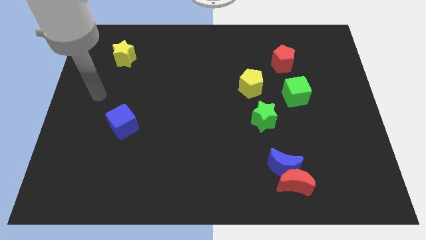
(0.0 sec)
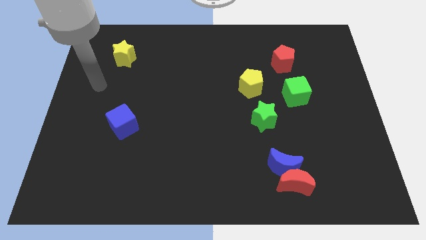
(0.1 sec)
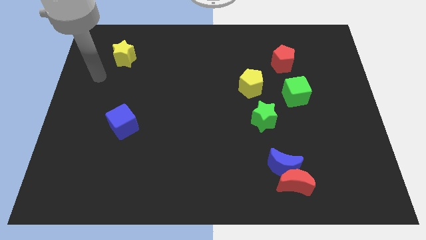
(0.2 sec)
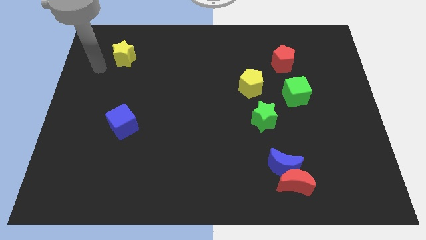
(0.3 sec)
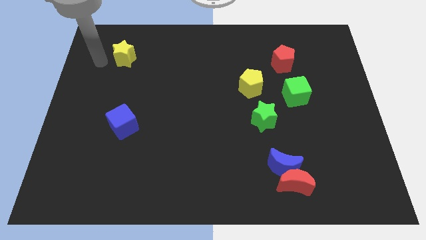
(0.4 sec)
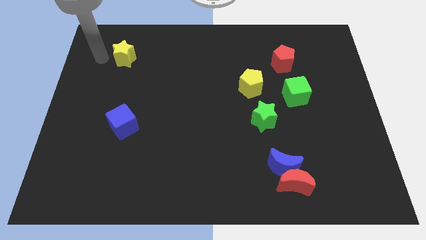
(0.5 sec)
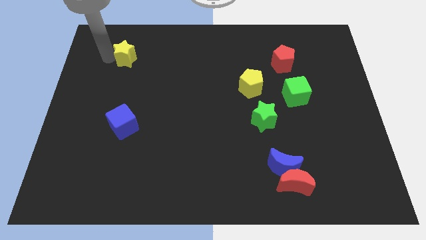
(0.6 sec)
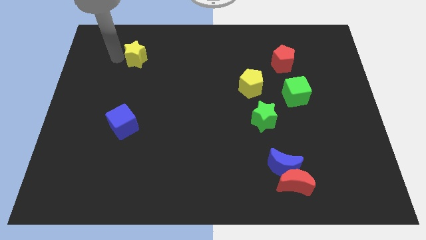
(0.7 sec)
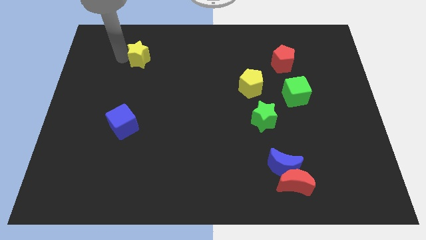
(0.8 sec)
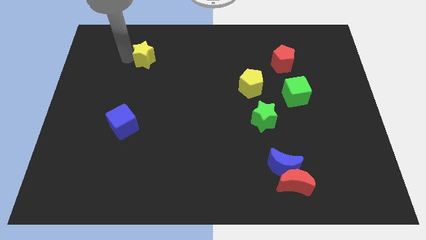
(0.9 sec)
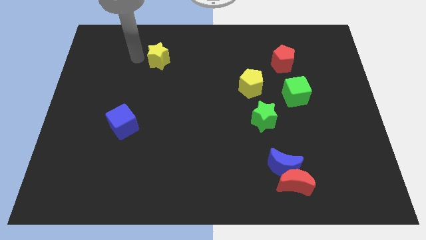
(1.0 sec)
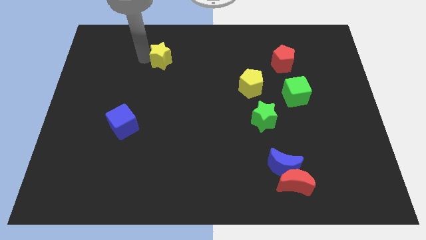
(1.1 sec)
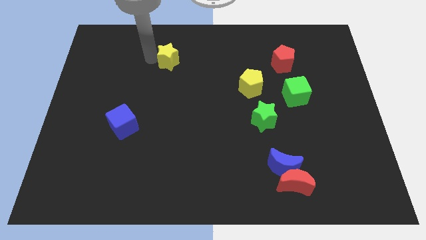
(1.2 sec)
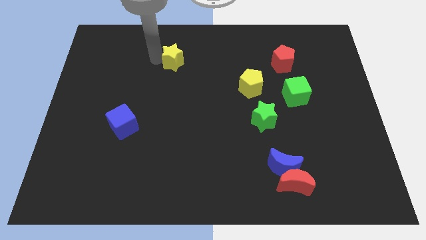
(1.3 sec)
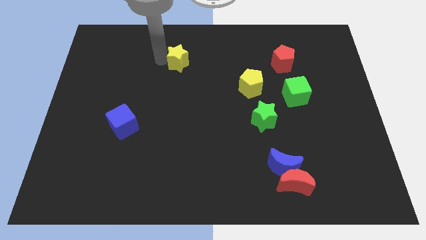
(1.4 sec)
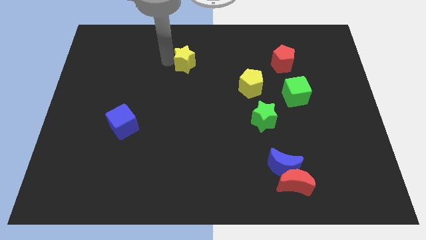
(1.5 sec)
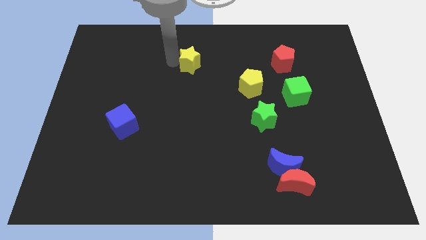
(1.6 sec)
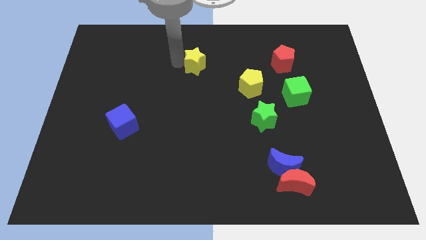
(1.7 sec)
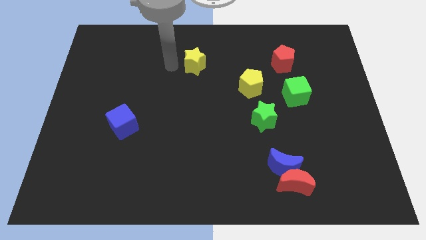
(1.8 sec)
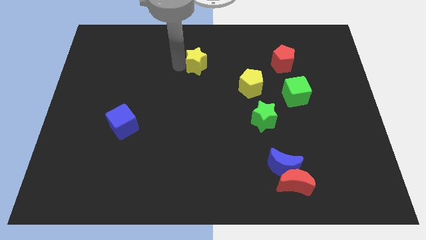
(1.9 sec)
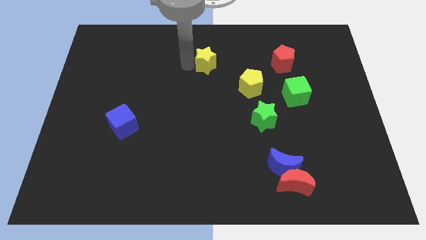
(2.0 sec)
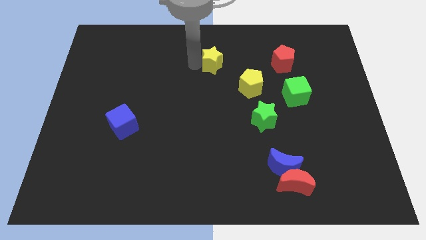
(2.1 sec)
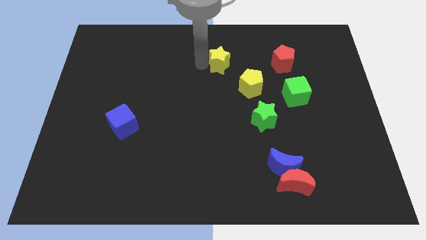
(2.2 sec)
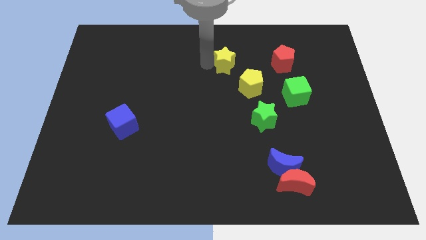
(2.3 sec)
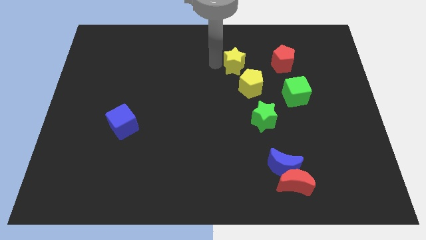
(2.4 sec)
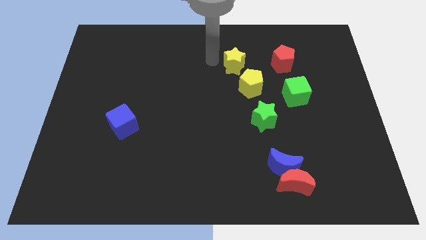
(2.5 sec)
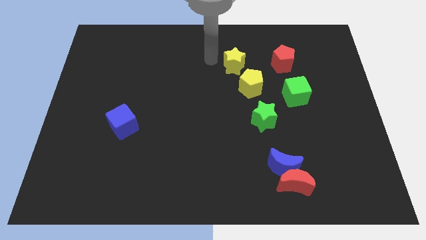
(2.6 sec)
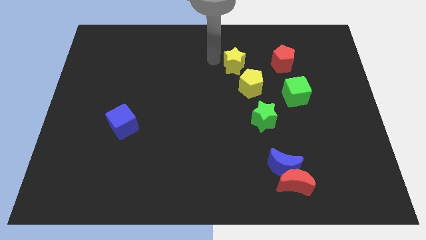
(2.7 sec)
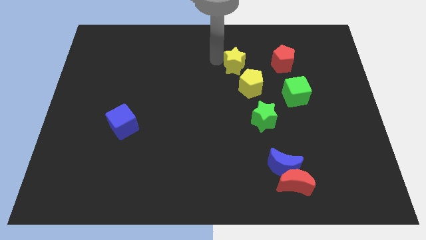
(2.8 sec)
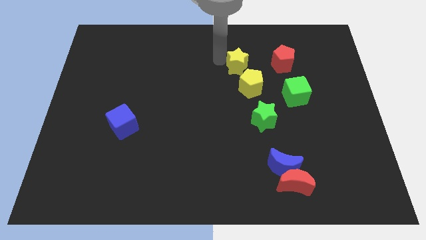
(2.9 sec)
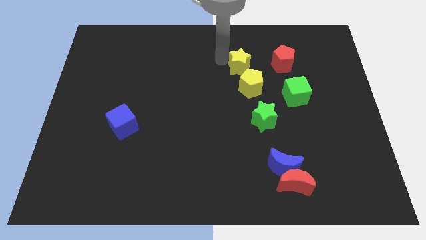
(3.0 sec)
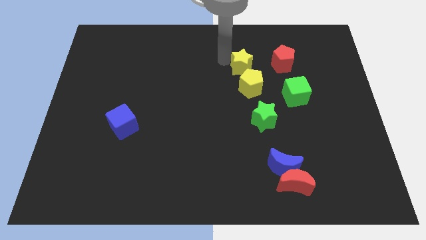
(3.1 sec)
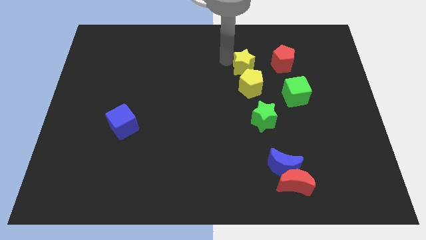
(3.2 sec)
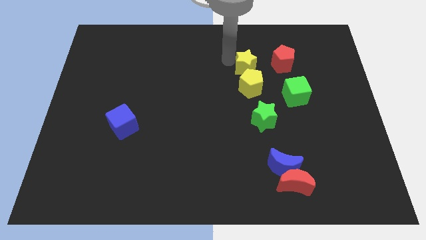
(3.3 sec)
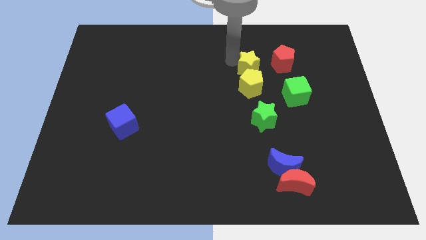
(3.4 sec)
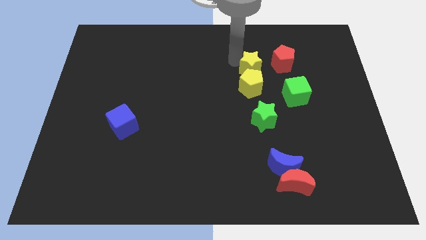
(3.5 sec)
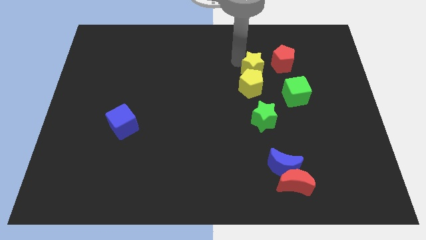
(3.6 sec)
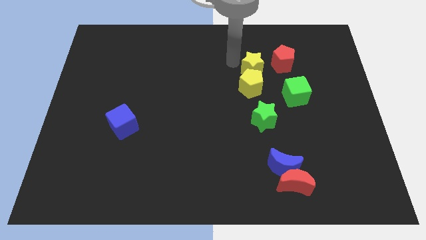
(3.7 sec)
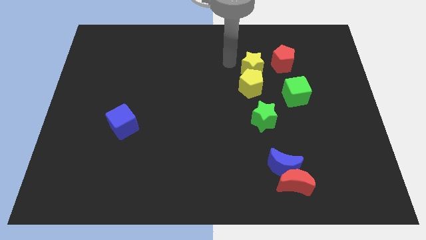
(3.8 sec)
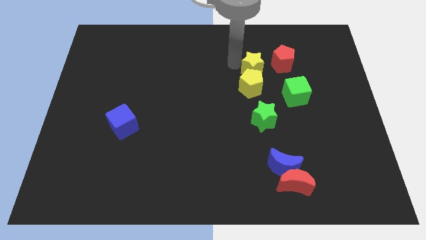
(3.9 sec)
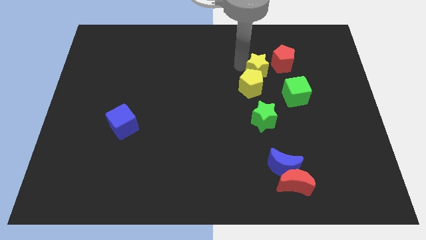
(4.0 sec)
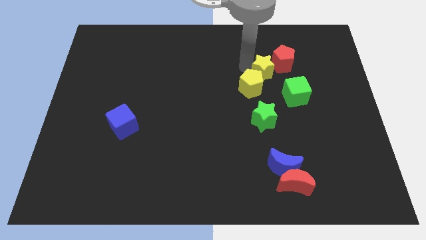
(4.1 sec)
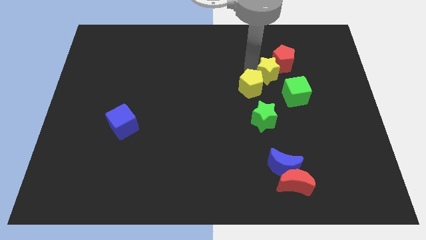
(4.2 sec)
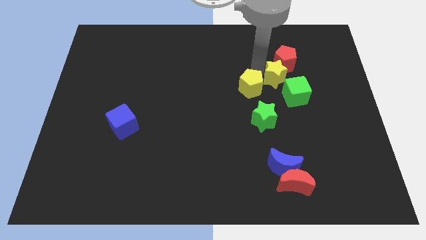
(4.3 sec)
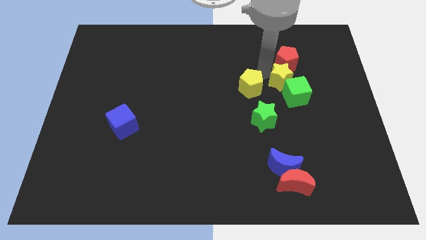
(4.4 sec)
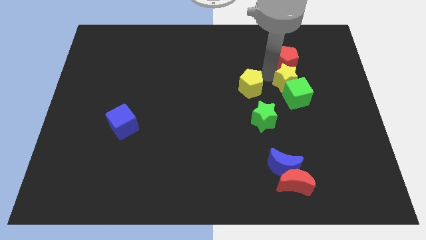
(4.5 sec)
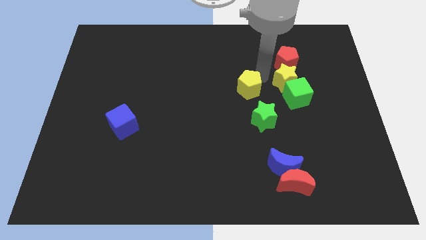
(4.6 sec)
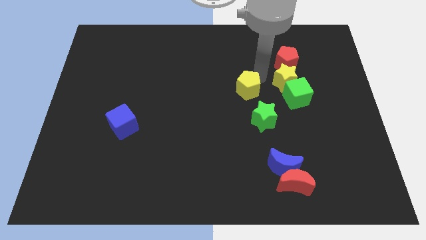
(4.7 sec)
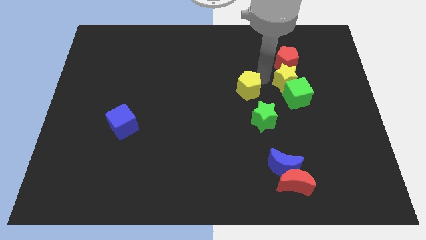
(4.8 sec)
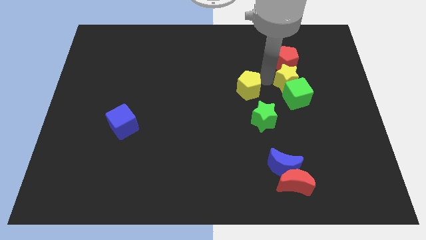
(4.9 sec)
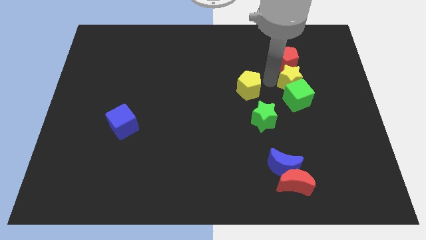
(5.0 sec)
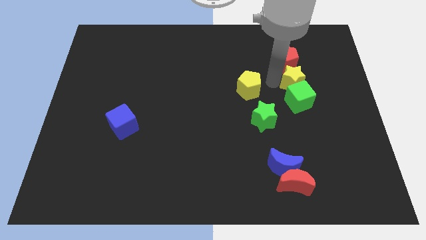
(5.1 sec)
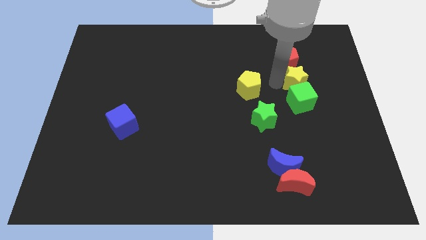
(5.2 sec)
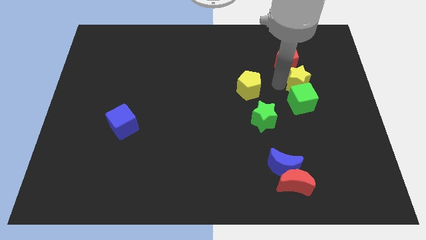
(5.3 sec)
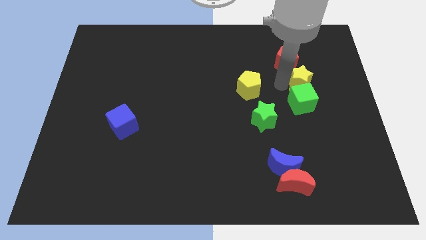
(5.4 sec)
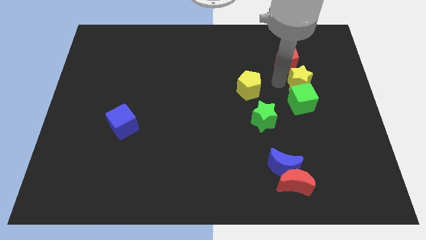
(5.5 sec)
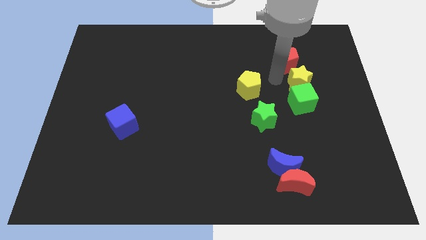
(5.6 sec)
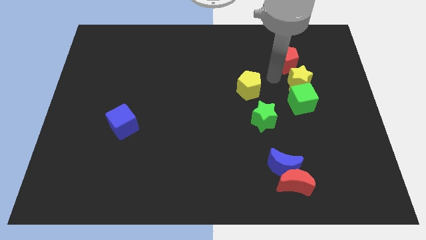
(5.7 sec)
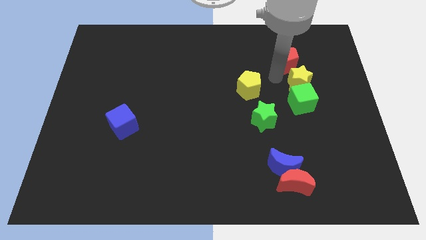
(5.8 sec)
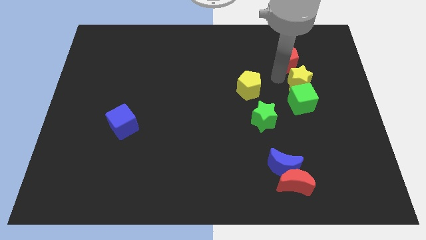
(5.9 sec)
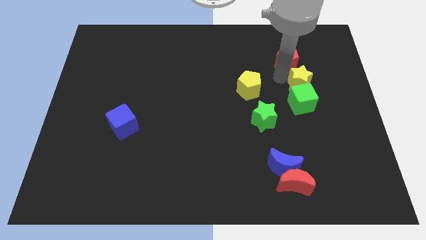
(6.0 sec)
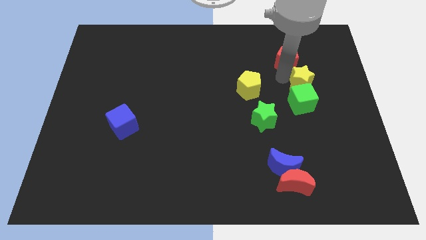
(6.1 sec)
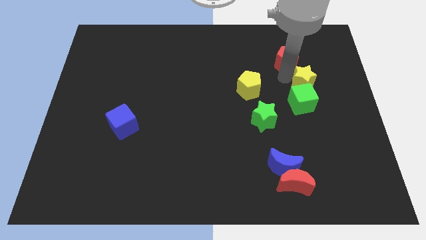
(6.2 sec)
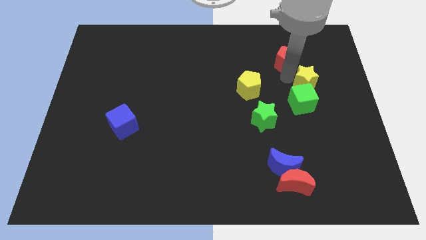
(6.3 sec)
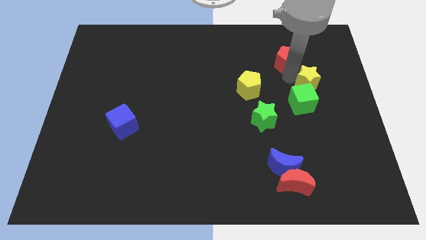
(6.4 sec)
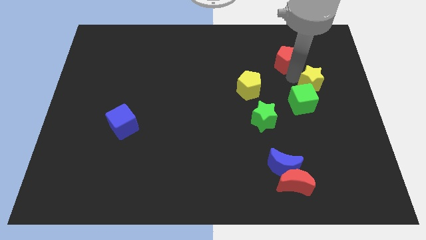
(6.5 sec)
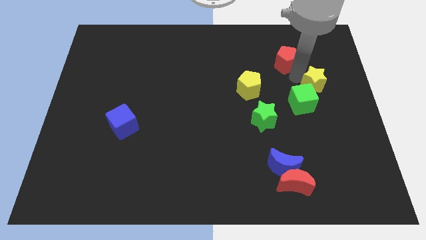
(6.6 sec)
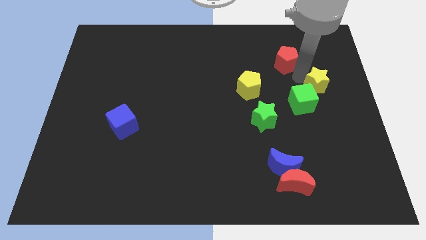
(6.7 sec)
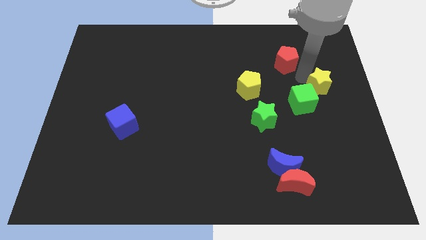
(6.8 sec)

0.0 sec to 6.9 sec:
put the yellow star to the right side of the board
